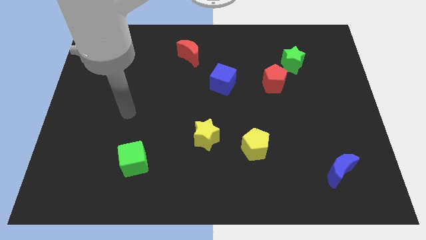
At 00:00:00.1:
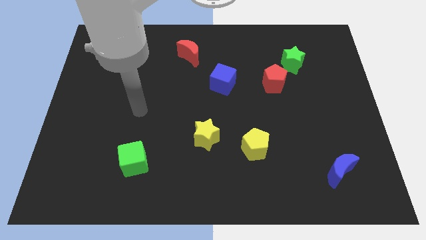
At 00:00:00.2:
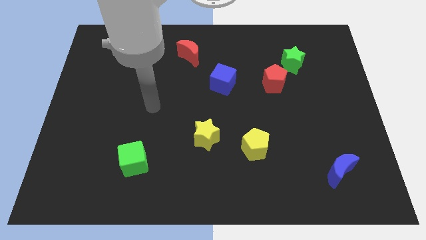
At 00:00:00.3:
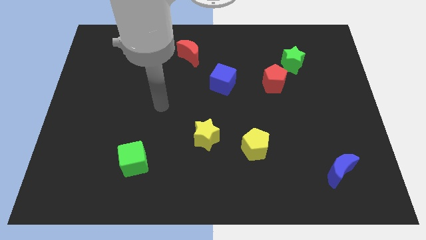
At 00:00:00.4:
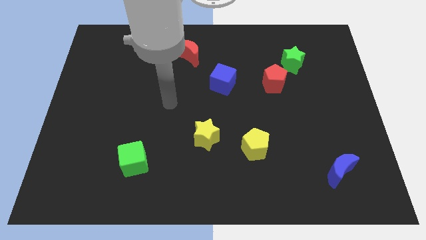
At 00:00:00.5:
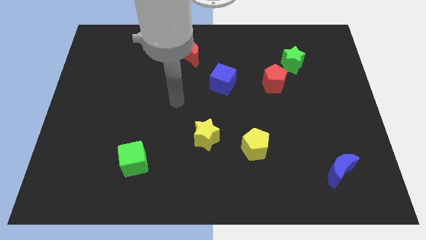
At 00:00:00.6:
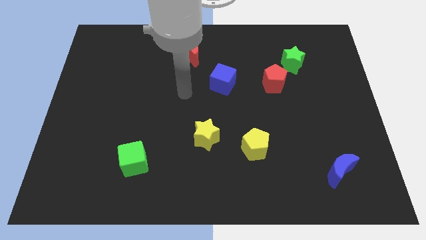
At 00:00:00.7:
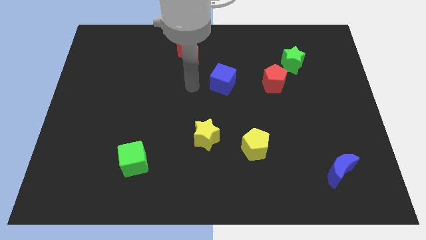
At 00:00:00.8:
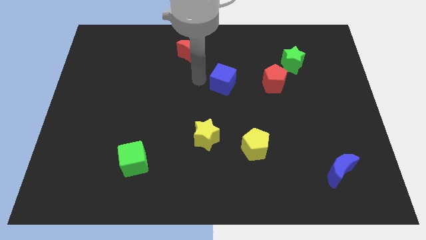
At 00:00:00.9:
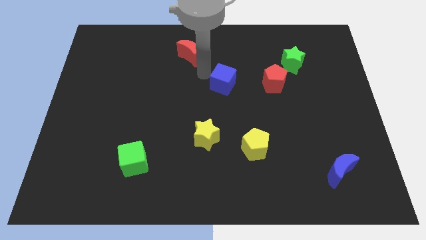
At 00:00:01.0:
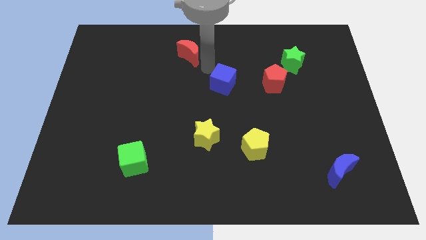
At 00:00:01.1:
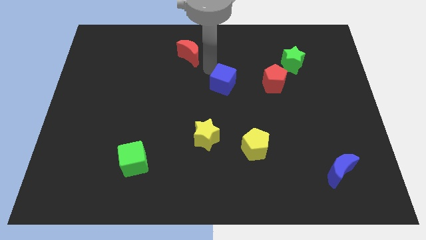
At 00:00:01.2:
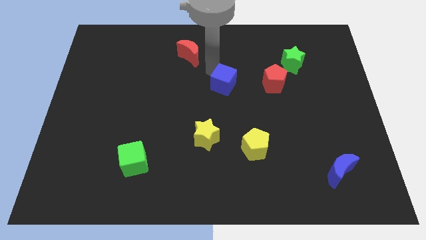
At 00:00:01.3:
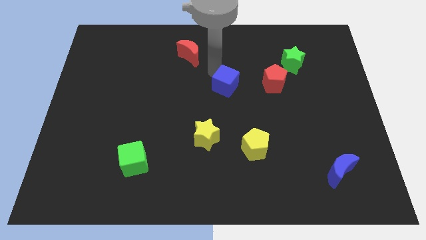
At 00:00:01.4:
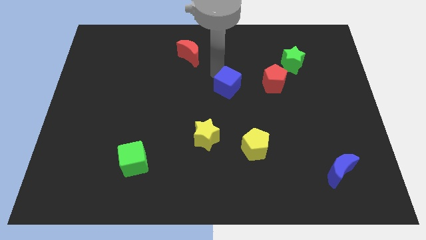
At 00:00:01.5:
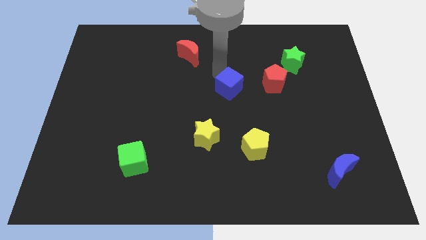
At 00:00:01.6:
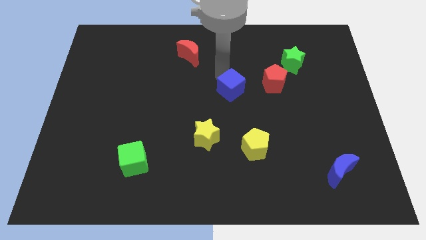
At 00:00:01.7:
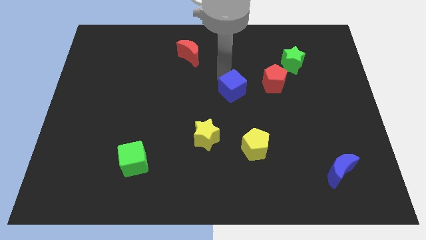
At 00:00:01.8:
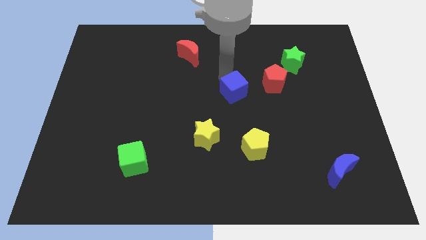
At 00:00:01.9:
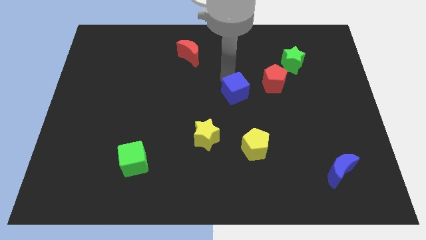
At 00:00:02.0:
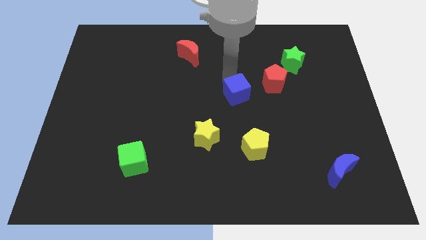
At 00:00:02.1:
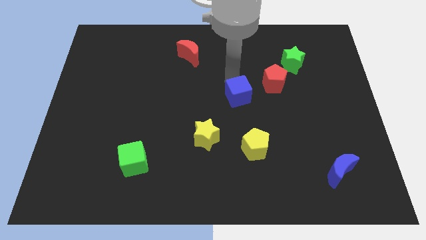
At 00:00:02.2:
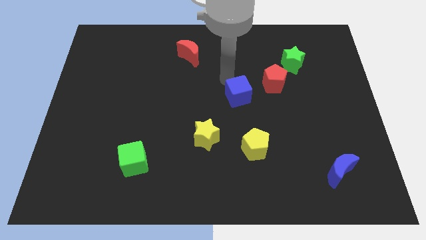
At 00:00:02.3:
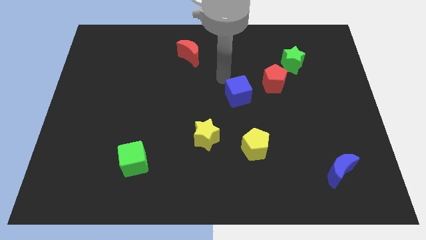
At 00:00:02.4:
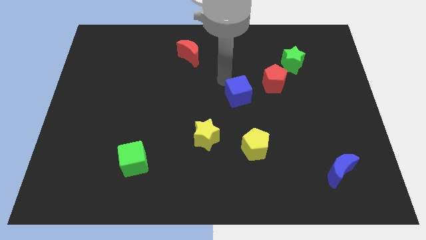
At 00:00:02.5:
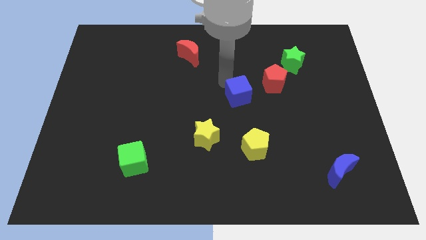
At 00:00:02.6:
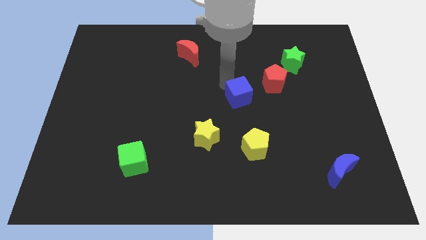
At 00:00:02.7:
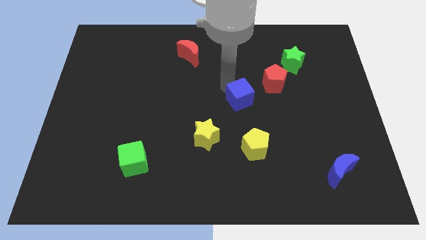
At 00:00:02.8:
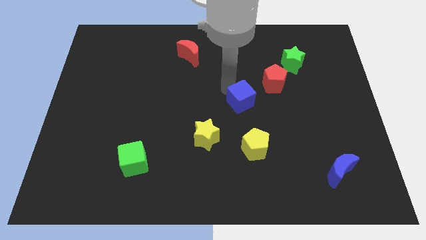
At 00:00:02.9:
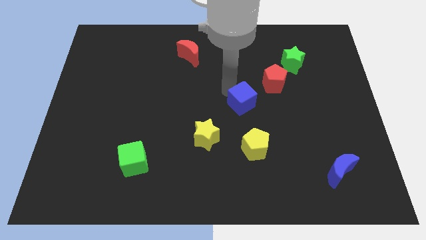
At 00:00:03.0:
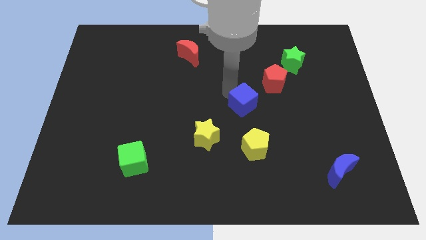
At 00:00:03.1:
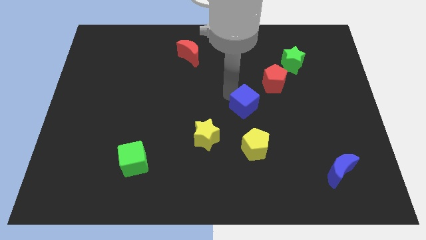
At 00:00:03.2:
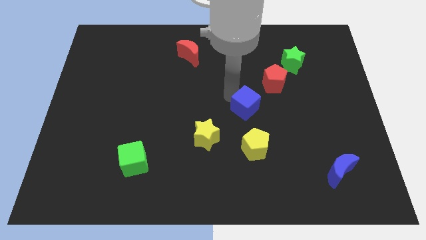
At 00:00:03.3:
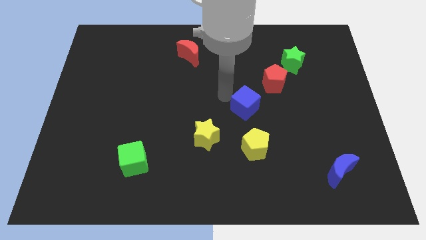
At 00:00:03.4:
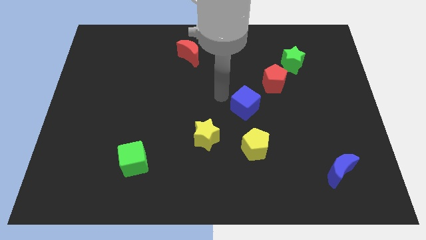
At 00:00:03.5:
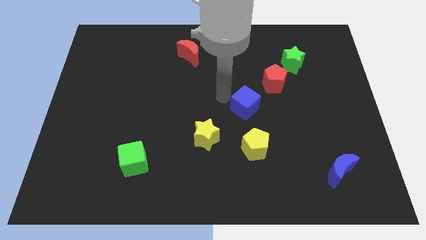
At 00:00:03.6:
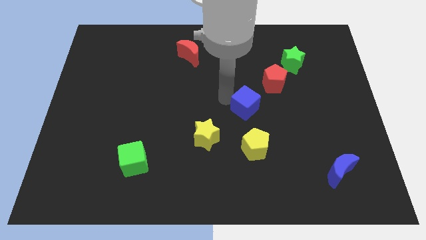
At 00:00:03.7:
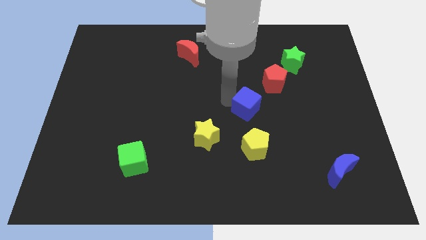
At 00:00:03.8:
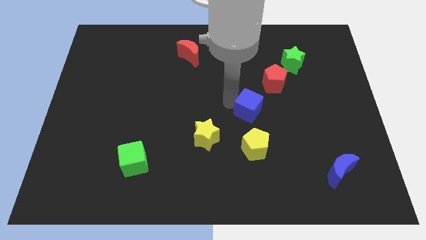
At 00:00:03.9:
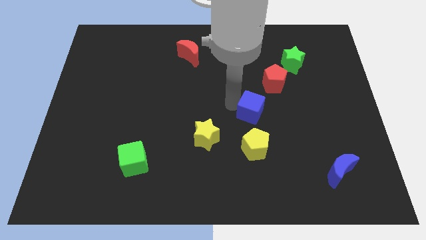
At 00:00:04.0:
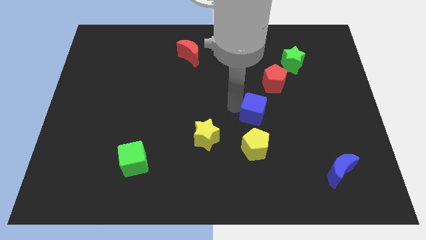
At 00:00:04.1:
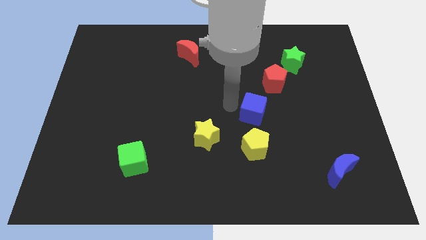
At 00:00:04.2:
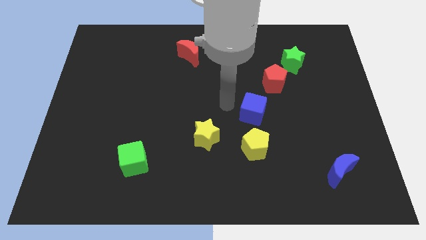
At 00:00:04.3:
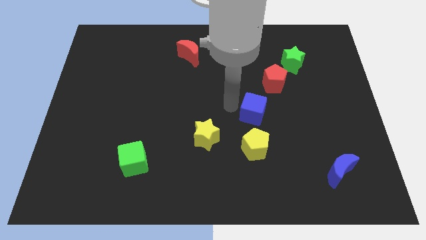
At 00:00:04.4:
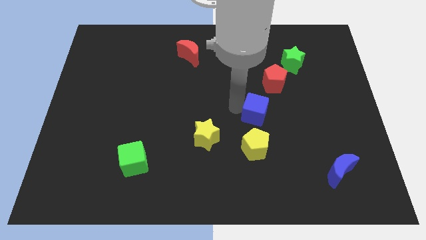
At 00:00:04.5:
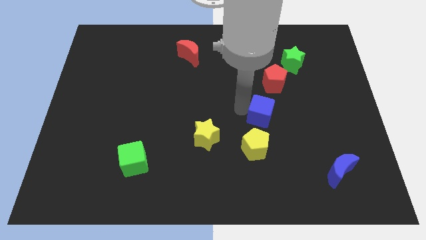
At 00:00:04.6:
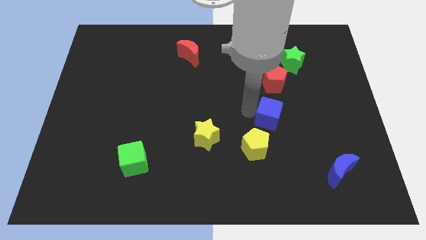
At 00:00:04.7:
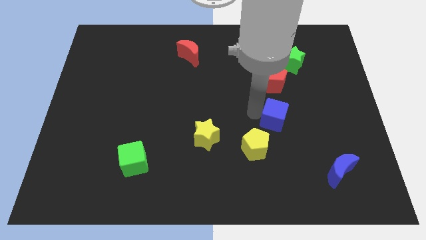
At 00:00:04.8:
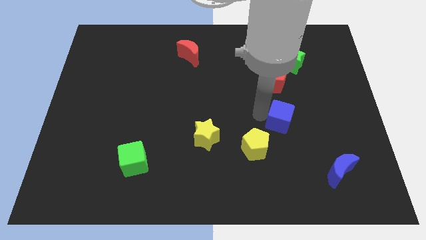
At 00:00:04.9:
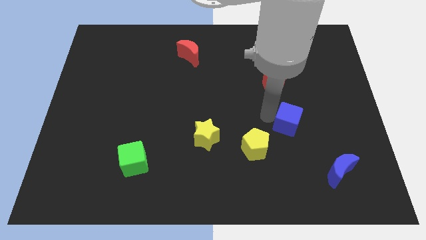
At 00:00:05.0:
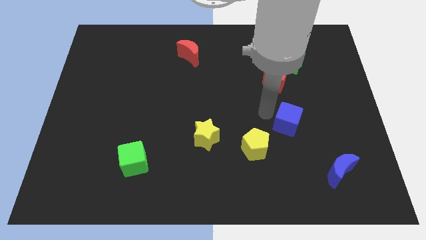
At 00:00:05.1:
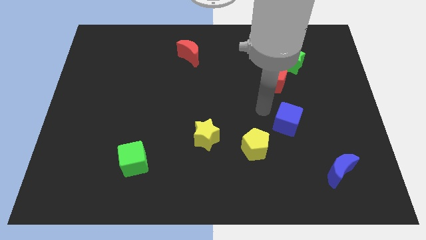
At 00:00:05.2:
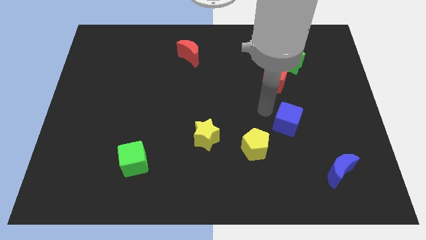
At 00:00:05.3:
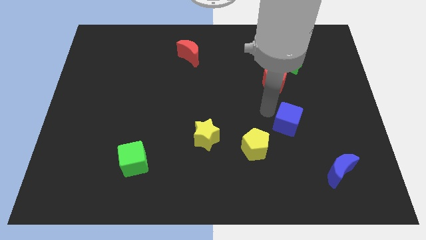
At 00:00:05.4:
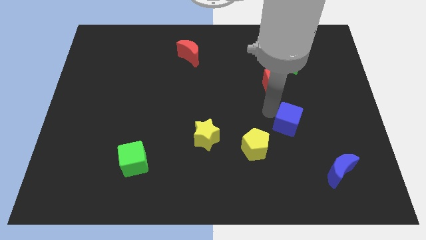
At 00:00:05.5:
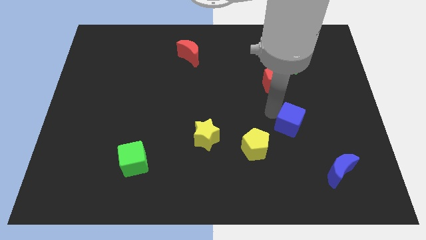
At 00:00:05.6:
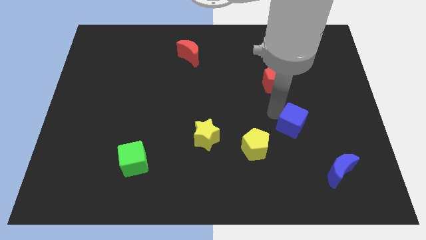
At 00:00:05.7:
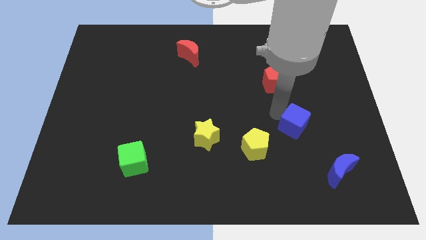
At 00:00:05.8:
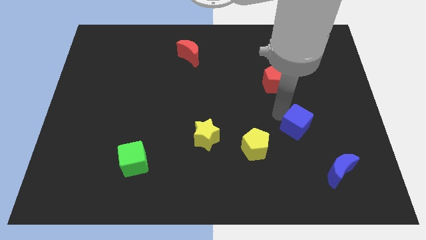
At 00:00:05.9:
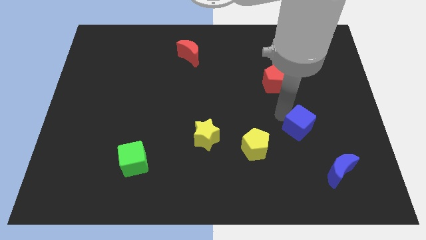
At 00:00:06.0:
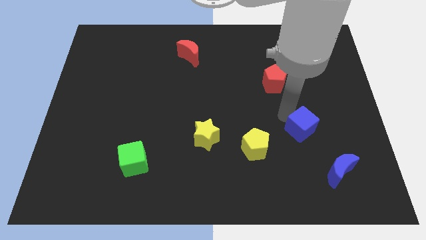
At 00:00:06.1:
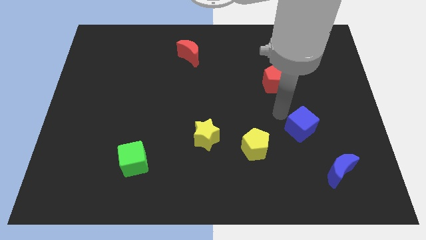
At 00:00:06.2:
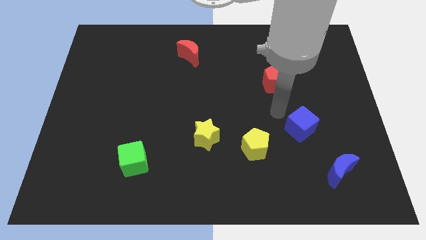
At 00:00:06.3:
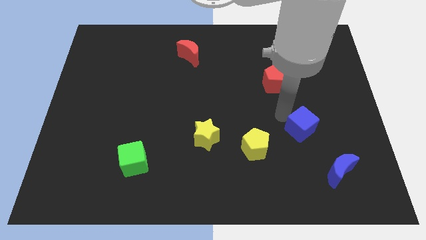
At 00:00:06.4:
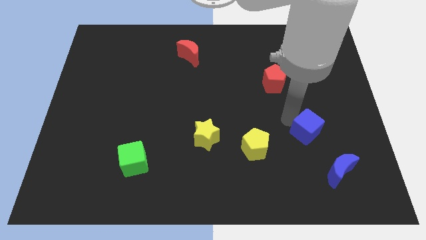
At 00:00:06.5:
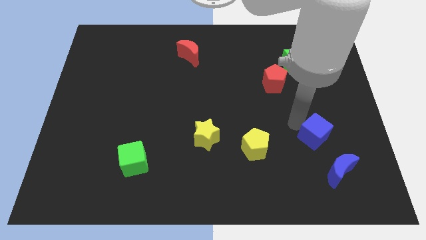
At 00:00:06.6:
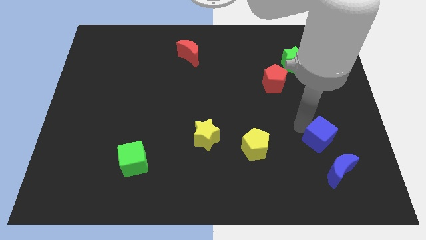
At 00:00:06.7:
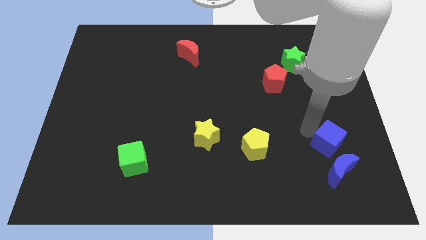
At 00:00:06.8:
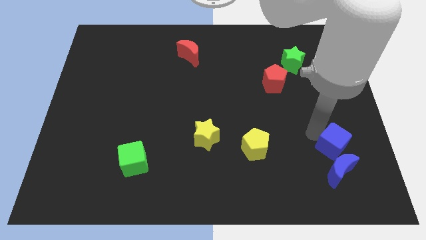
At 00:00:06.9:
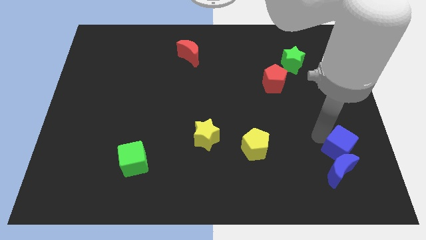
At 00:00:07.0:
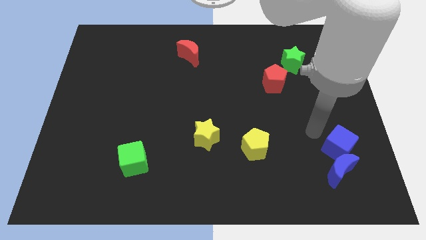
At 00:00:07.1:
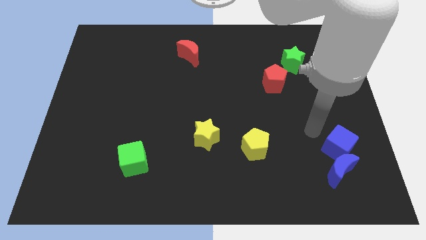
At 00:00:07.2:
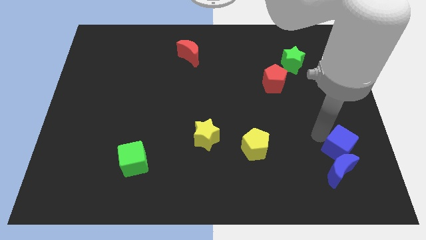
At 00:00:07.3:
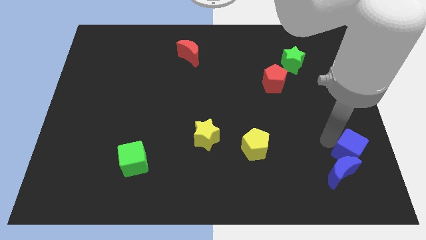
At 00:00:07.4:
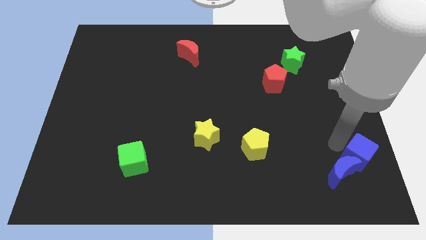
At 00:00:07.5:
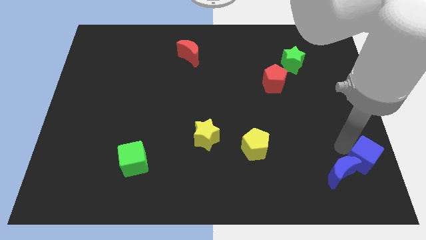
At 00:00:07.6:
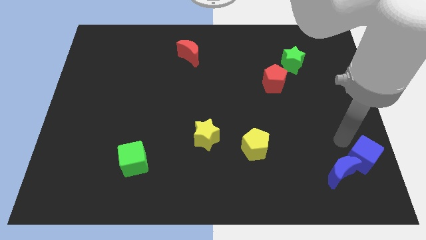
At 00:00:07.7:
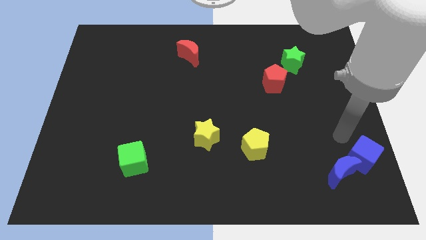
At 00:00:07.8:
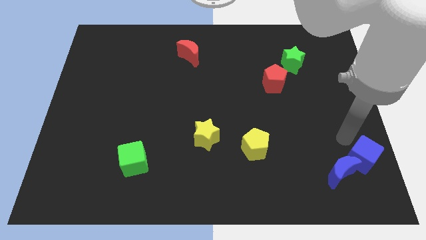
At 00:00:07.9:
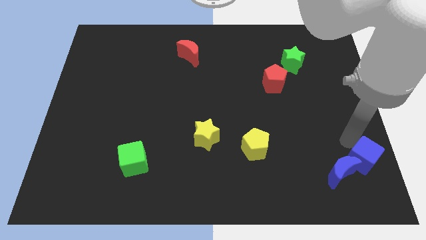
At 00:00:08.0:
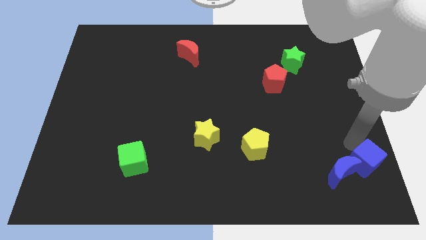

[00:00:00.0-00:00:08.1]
move the blue cube to the bottom right
